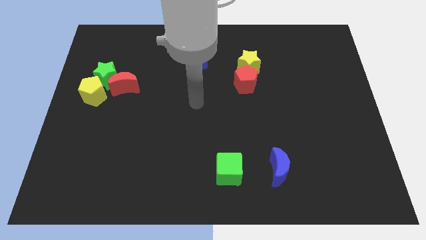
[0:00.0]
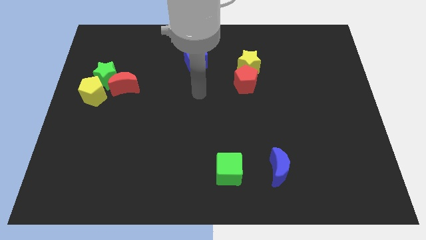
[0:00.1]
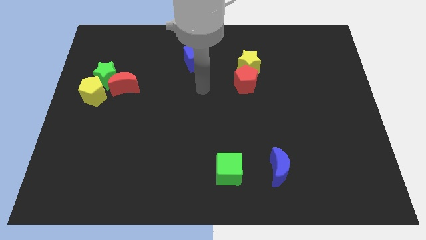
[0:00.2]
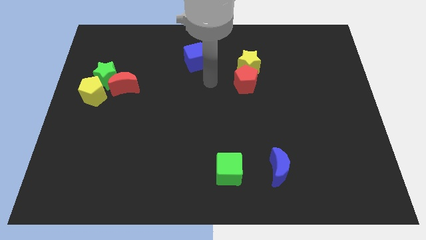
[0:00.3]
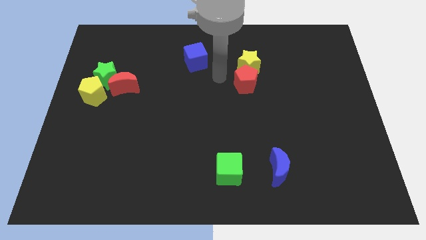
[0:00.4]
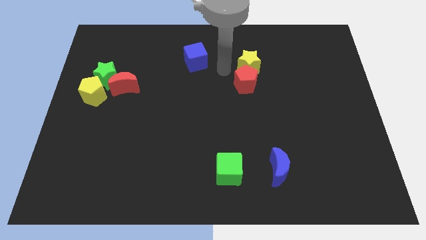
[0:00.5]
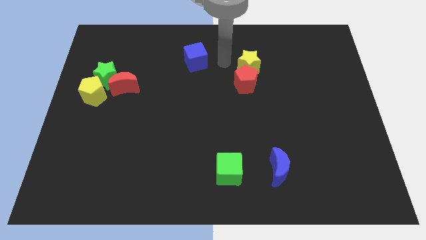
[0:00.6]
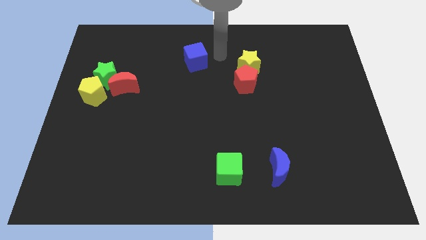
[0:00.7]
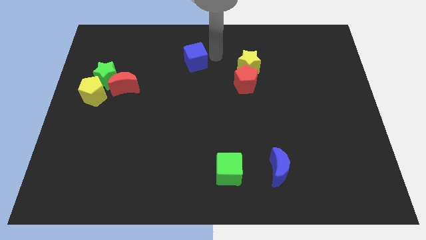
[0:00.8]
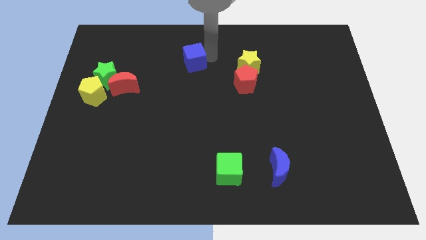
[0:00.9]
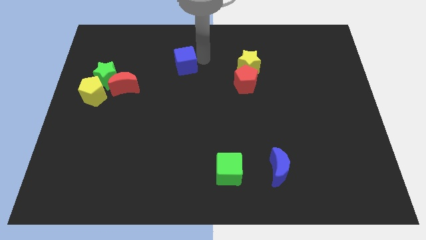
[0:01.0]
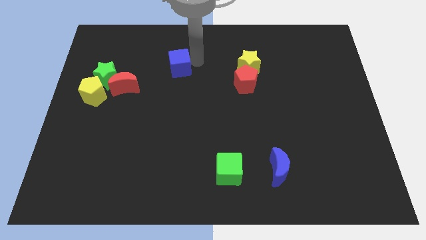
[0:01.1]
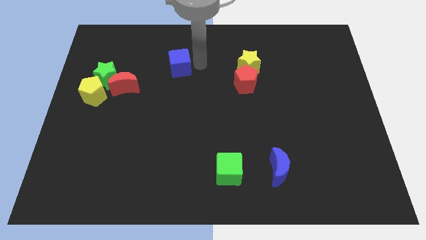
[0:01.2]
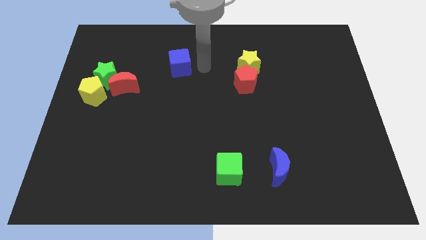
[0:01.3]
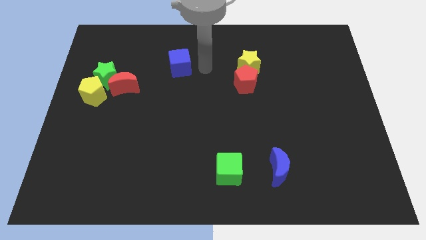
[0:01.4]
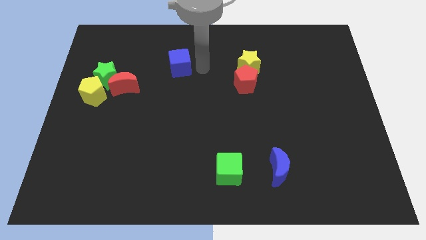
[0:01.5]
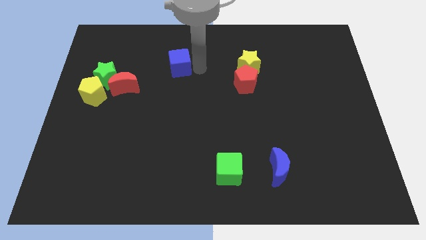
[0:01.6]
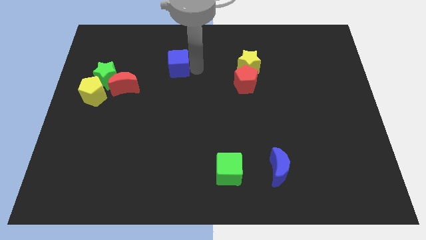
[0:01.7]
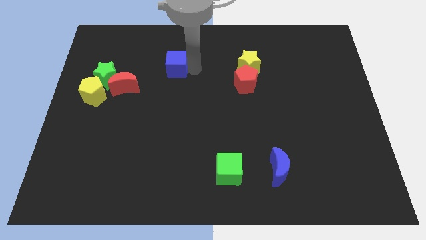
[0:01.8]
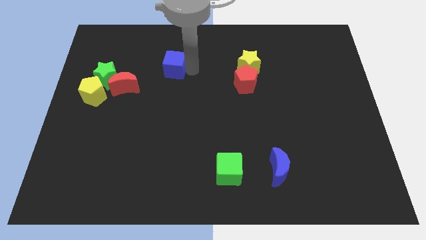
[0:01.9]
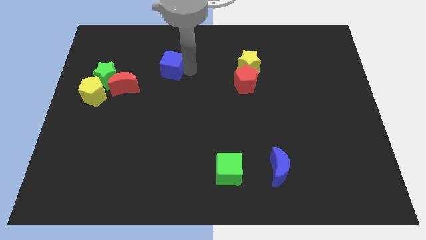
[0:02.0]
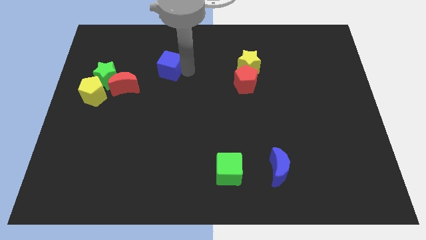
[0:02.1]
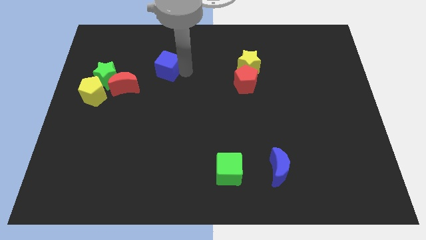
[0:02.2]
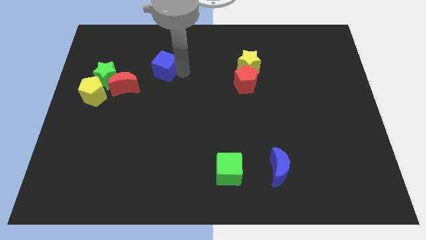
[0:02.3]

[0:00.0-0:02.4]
slightly move the blue cube left

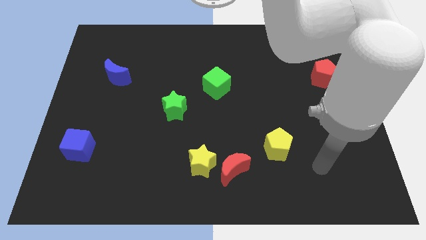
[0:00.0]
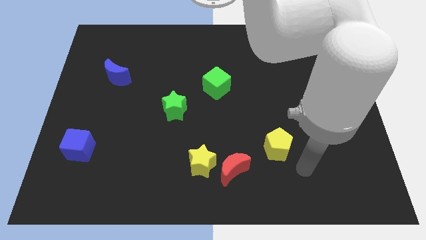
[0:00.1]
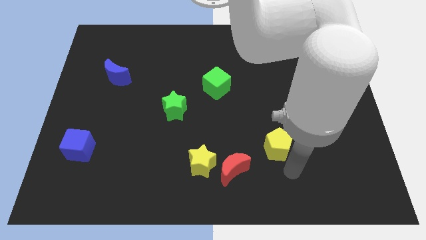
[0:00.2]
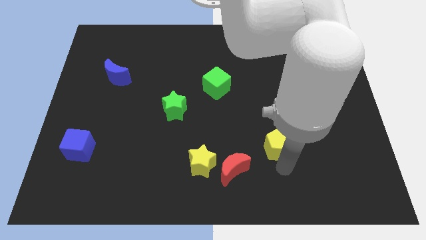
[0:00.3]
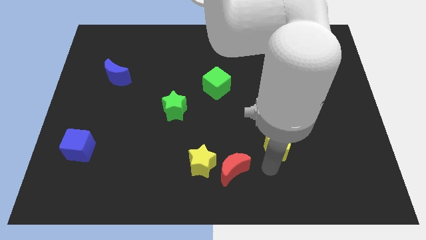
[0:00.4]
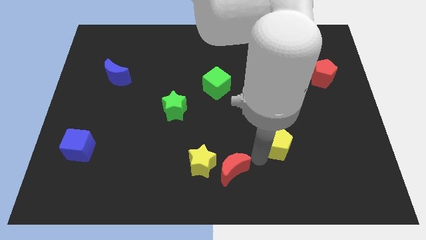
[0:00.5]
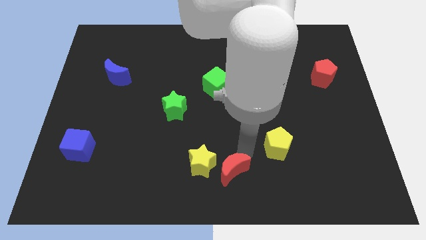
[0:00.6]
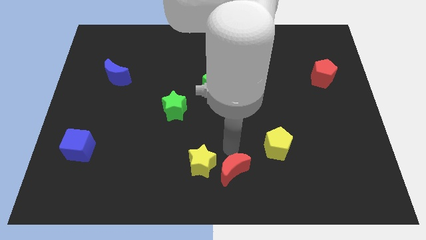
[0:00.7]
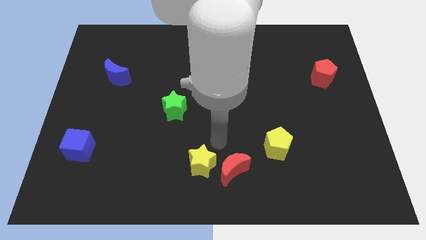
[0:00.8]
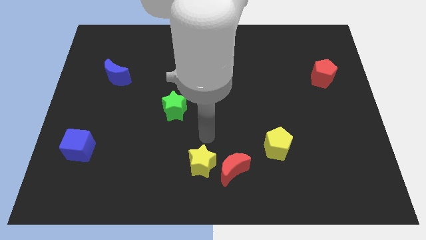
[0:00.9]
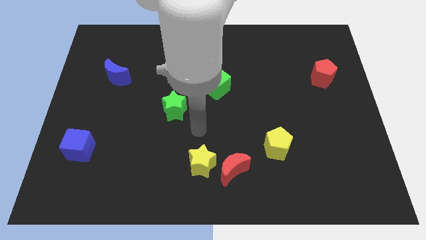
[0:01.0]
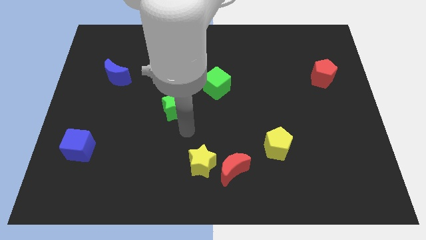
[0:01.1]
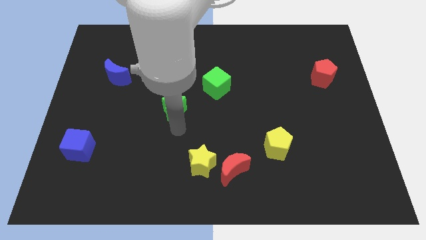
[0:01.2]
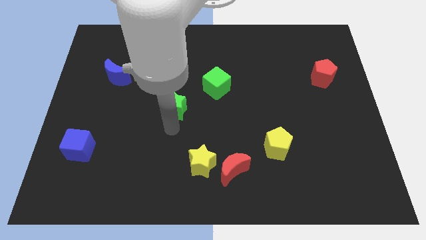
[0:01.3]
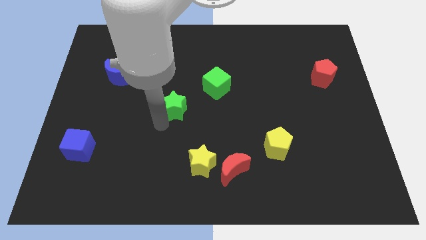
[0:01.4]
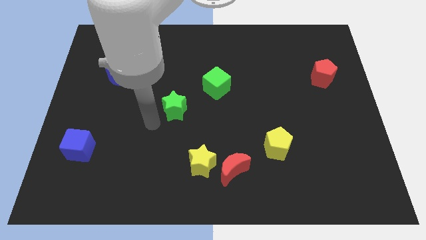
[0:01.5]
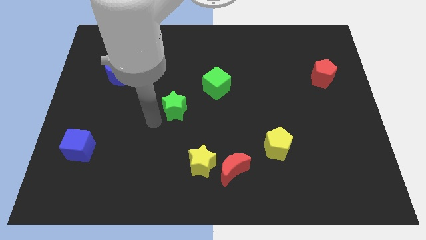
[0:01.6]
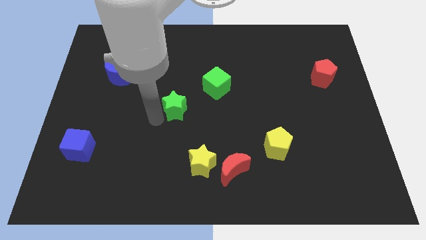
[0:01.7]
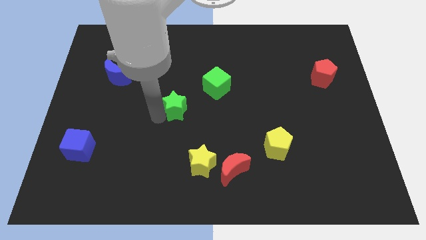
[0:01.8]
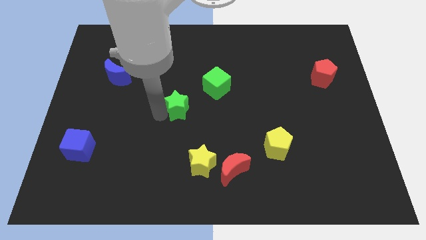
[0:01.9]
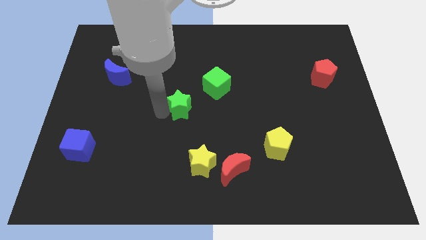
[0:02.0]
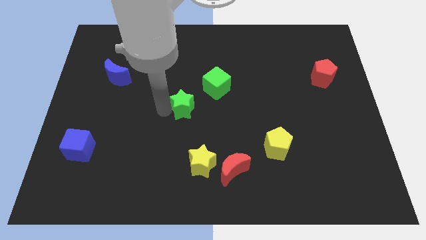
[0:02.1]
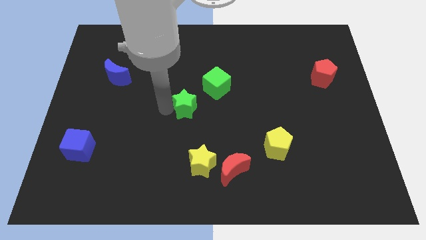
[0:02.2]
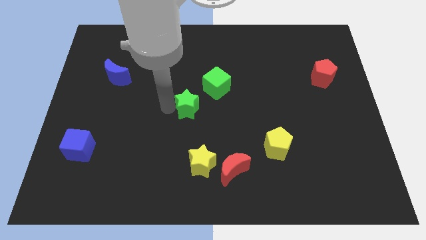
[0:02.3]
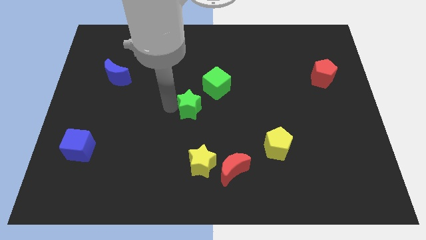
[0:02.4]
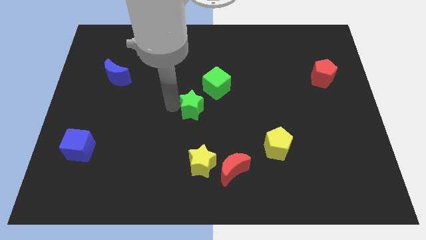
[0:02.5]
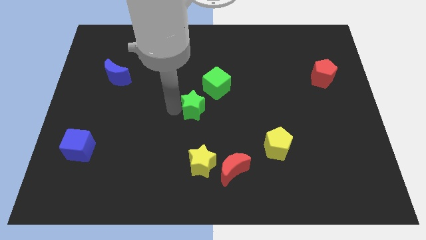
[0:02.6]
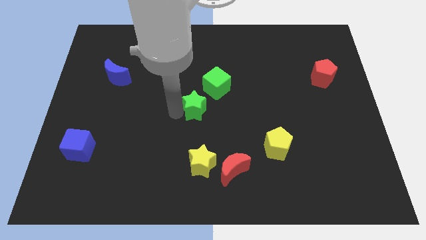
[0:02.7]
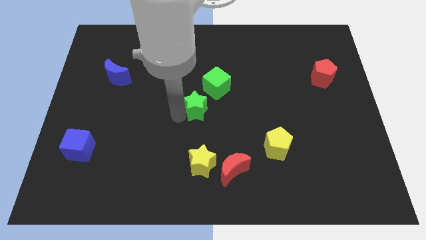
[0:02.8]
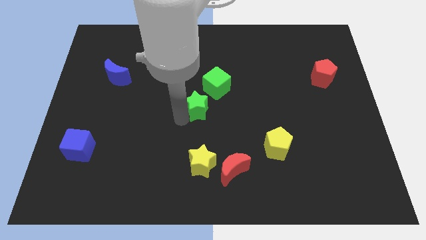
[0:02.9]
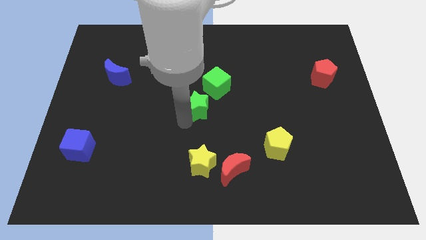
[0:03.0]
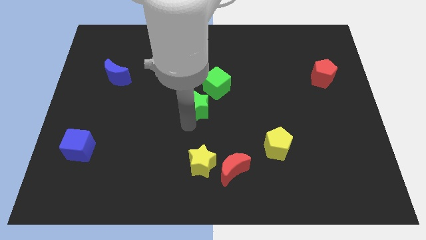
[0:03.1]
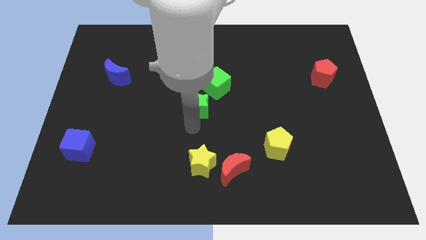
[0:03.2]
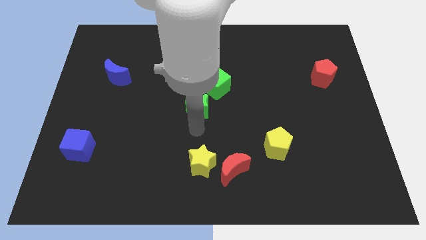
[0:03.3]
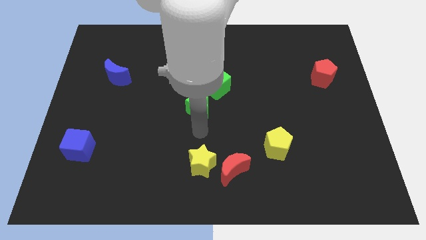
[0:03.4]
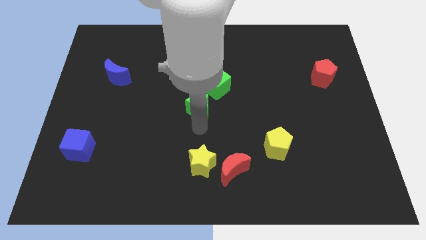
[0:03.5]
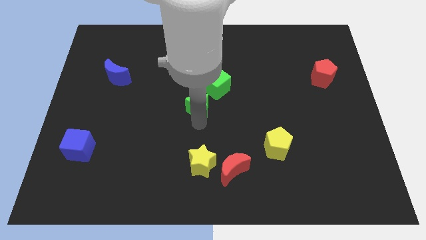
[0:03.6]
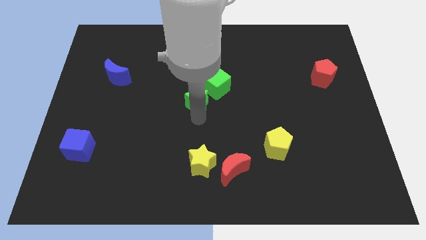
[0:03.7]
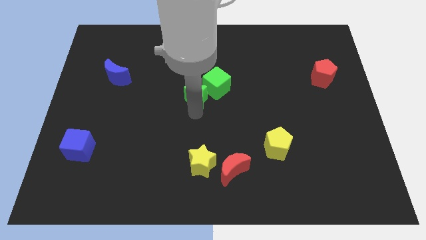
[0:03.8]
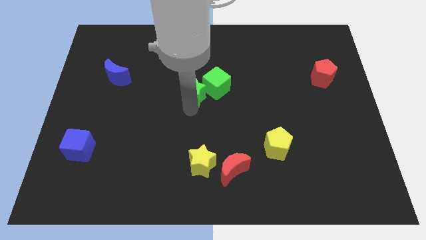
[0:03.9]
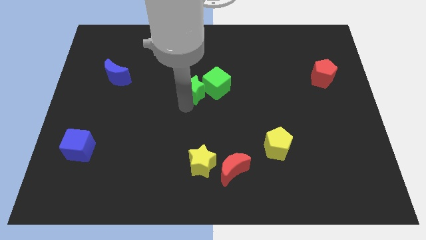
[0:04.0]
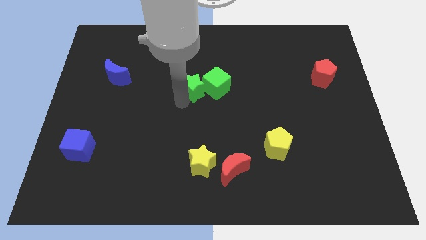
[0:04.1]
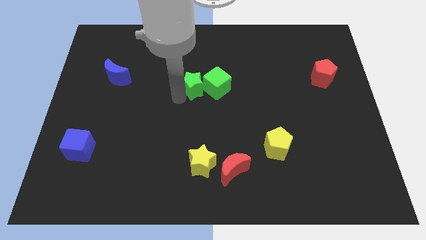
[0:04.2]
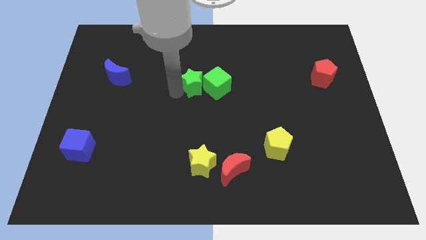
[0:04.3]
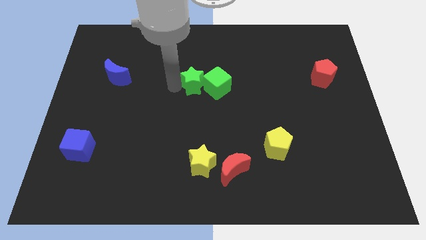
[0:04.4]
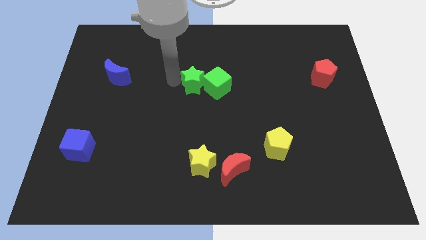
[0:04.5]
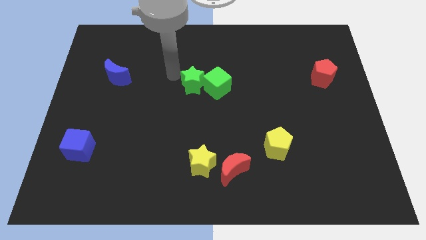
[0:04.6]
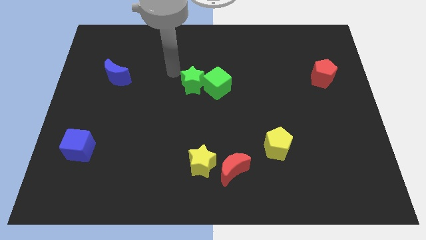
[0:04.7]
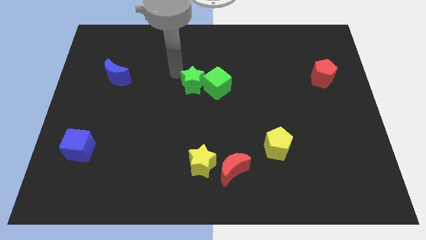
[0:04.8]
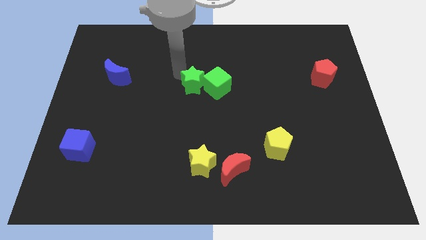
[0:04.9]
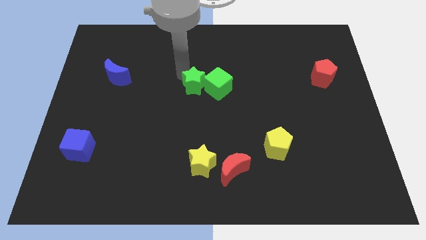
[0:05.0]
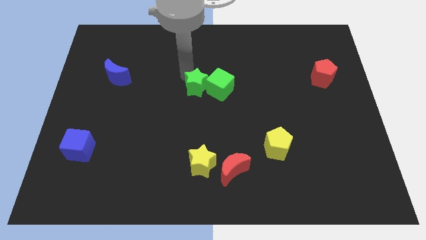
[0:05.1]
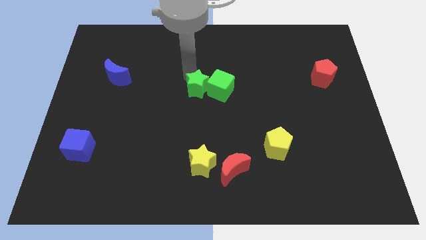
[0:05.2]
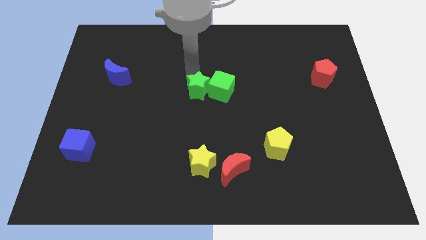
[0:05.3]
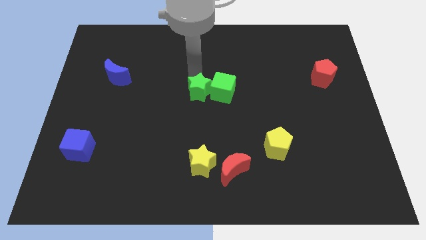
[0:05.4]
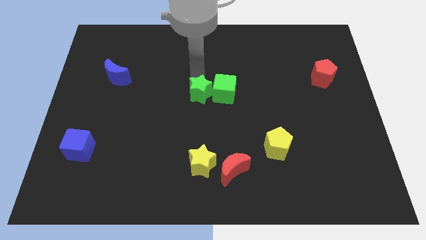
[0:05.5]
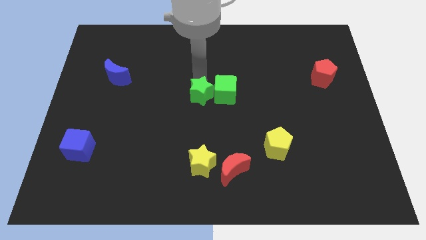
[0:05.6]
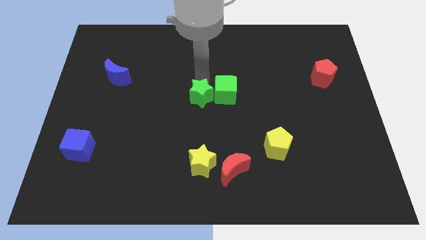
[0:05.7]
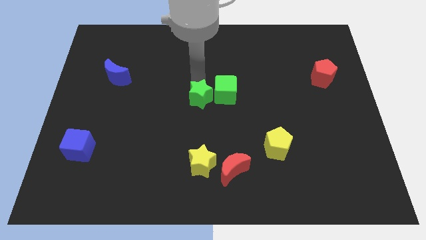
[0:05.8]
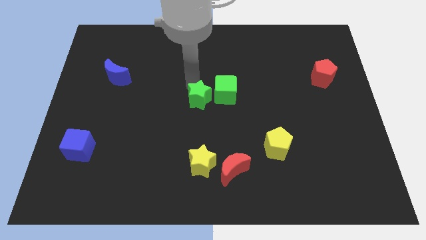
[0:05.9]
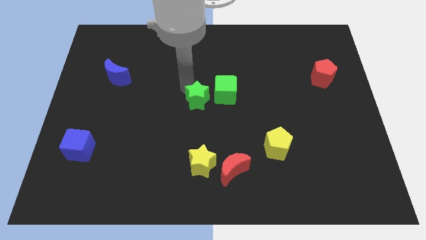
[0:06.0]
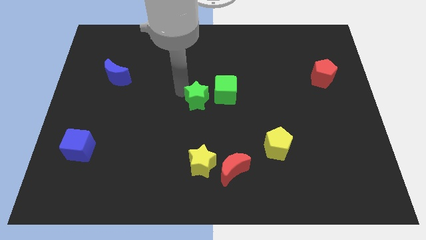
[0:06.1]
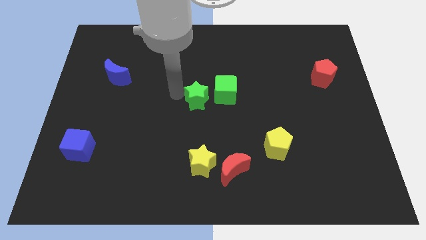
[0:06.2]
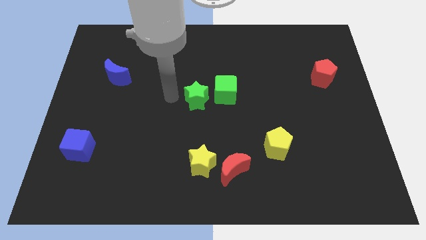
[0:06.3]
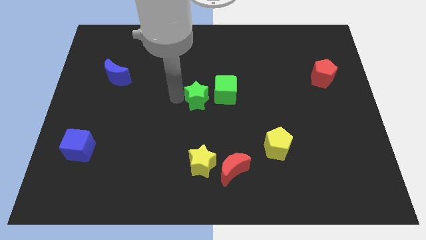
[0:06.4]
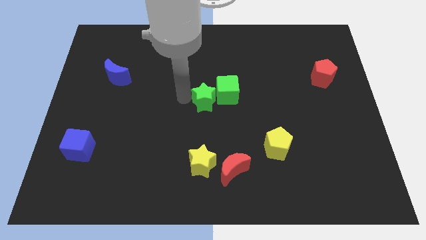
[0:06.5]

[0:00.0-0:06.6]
slide the green star somewhat right
